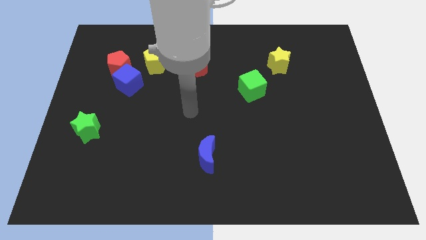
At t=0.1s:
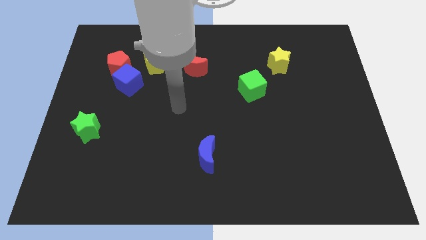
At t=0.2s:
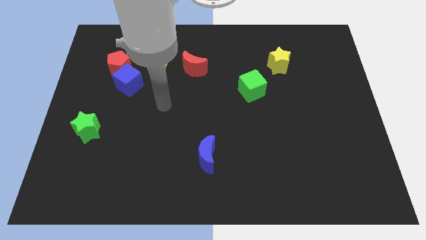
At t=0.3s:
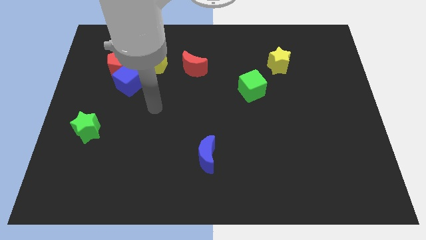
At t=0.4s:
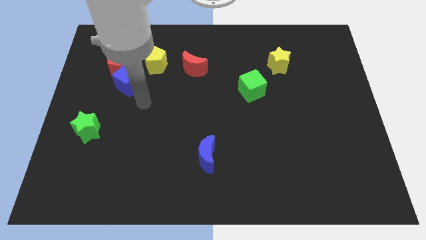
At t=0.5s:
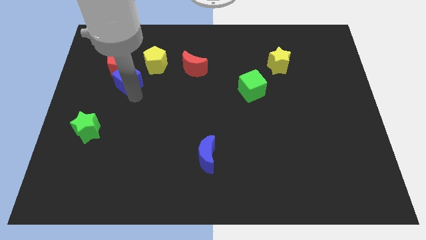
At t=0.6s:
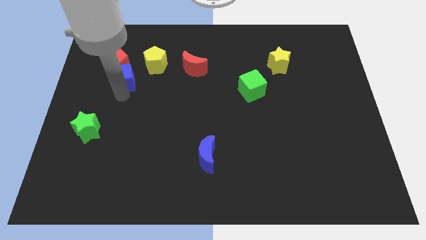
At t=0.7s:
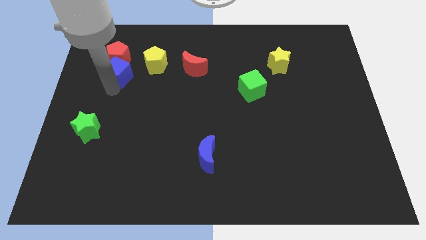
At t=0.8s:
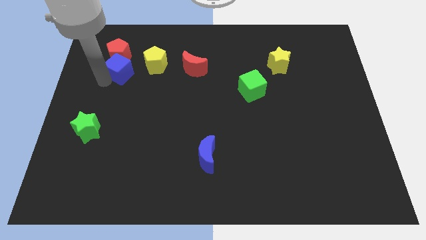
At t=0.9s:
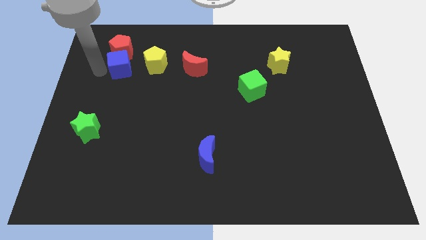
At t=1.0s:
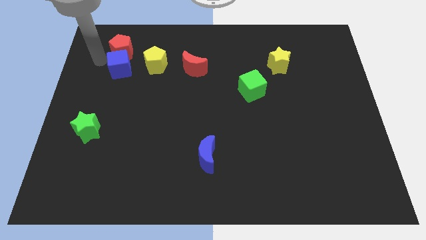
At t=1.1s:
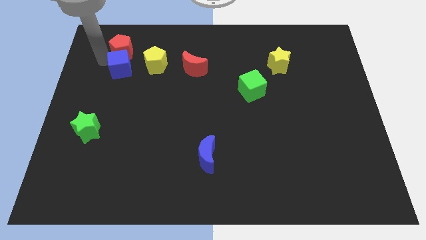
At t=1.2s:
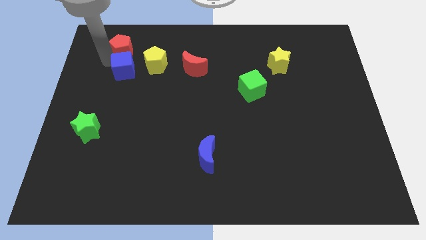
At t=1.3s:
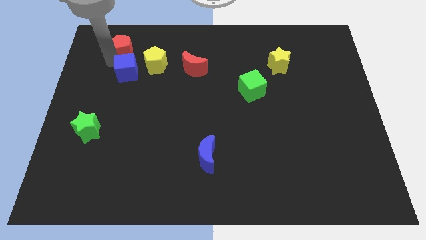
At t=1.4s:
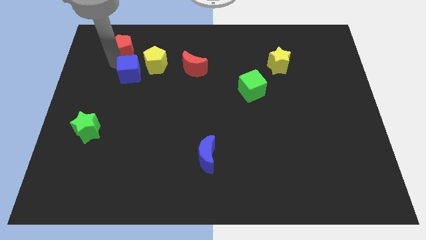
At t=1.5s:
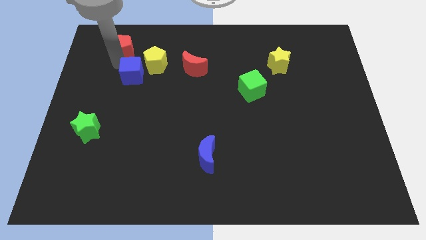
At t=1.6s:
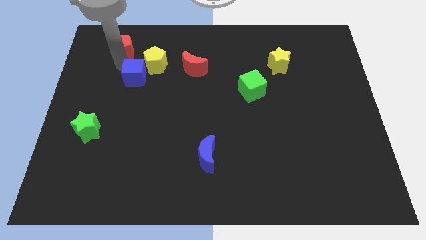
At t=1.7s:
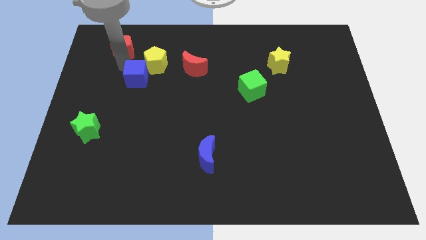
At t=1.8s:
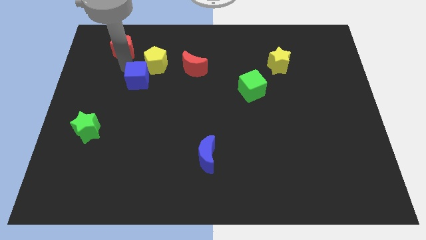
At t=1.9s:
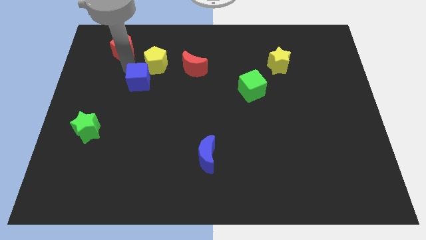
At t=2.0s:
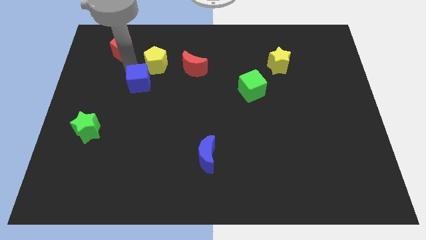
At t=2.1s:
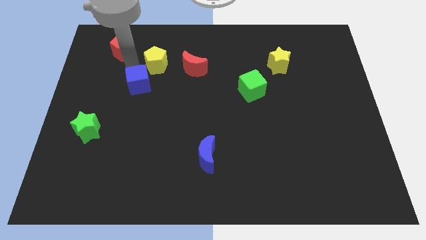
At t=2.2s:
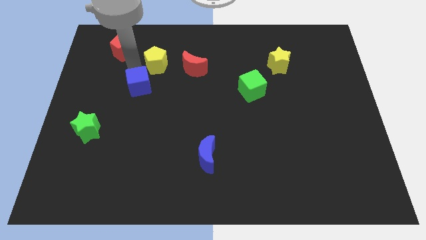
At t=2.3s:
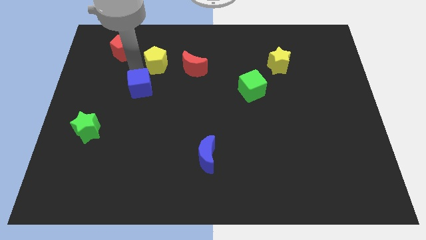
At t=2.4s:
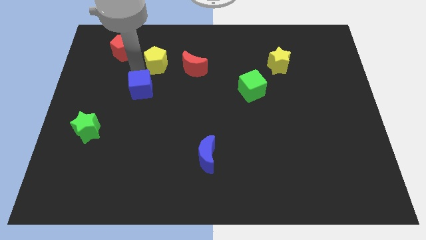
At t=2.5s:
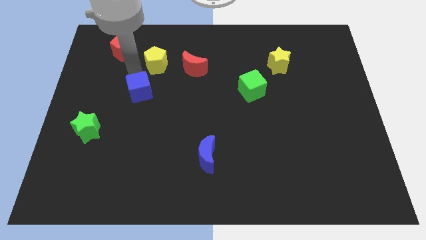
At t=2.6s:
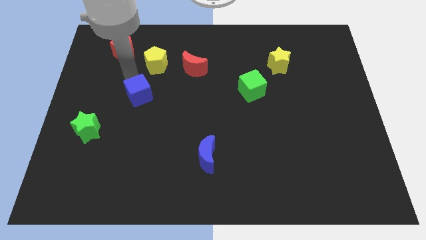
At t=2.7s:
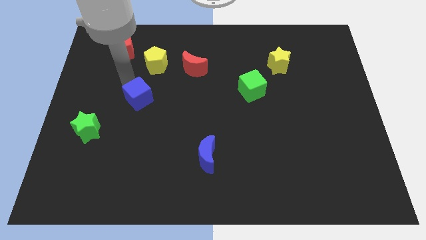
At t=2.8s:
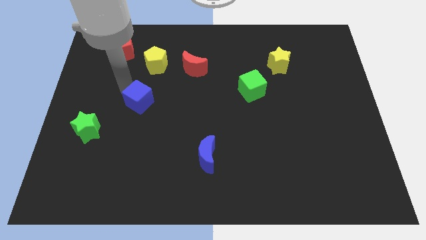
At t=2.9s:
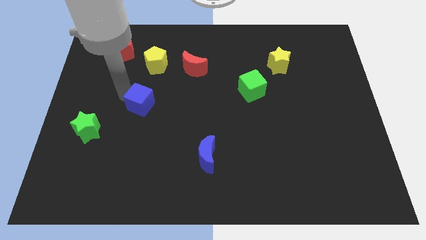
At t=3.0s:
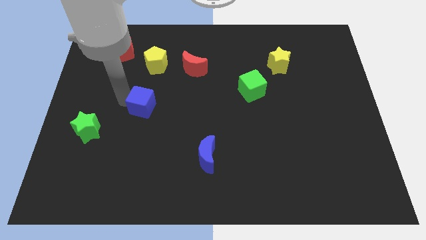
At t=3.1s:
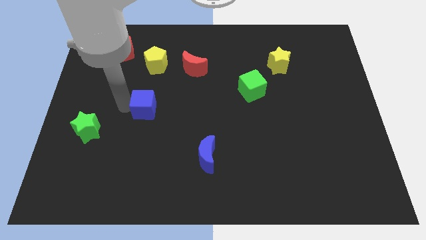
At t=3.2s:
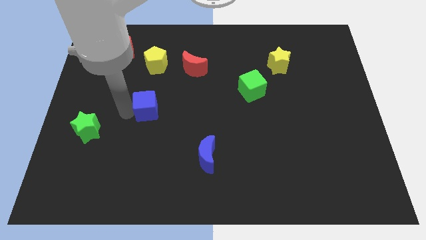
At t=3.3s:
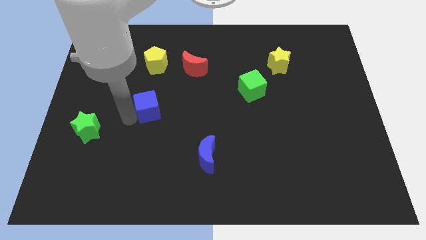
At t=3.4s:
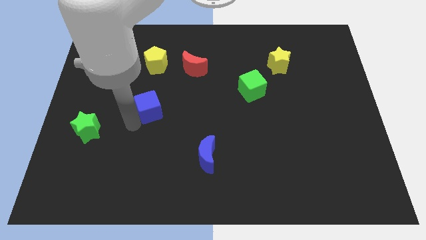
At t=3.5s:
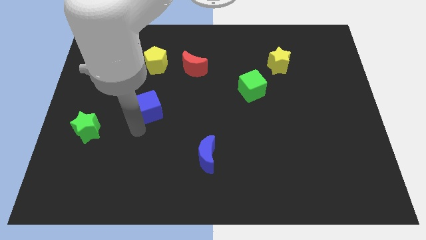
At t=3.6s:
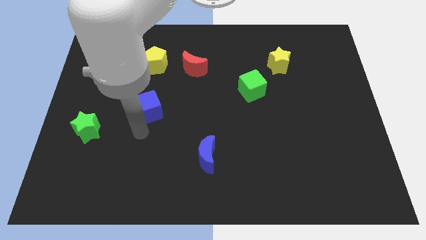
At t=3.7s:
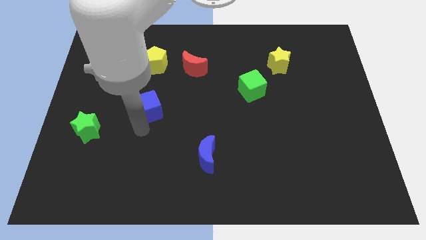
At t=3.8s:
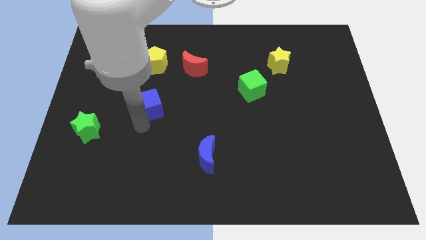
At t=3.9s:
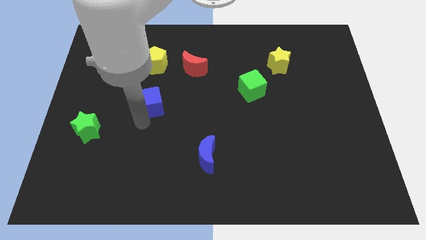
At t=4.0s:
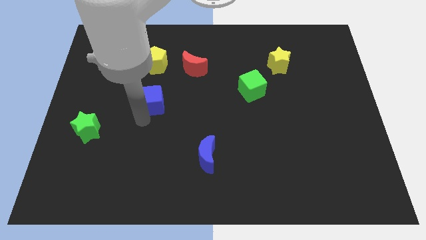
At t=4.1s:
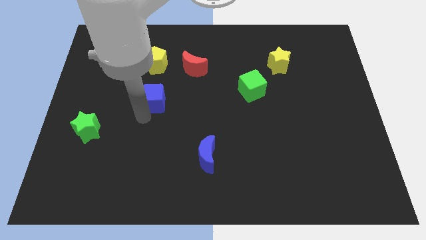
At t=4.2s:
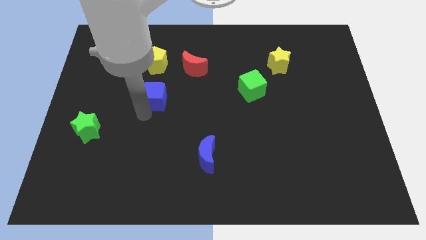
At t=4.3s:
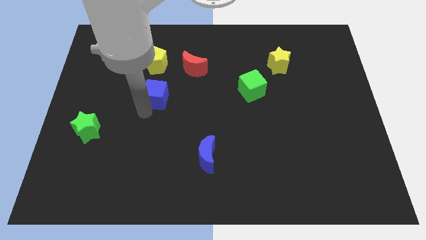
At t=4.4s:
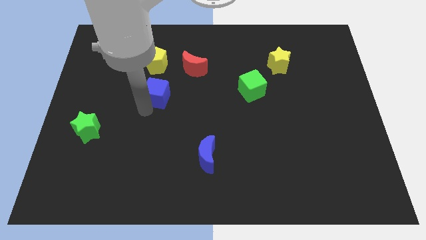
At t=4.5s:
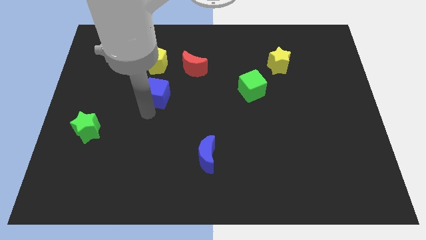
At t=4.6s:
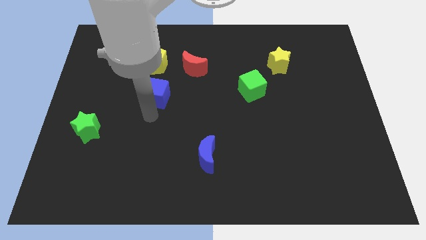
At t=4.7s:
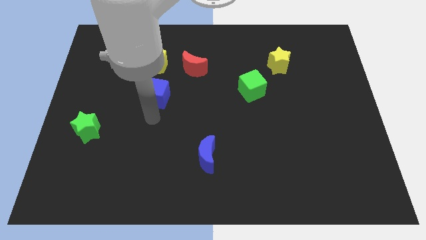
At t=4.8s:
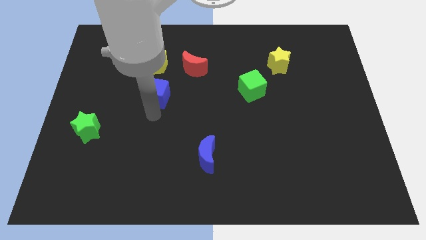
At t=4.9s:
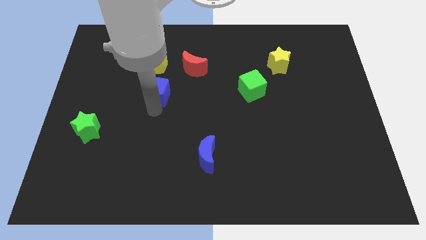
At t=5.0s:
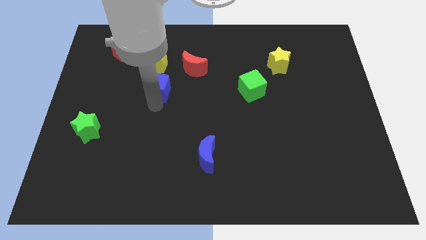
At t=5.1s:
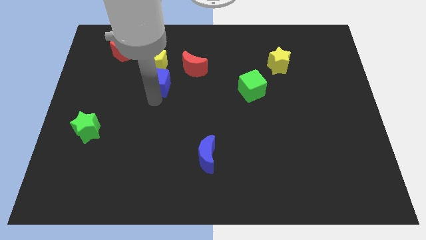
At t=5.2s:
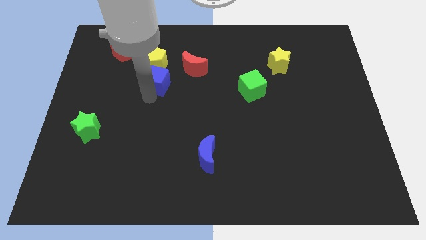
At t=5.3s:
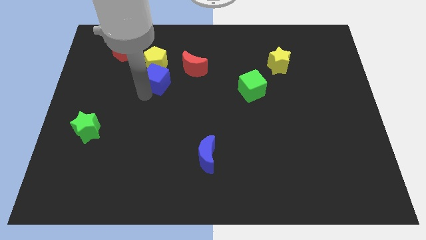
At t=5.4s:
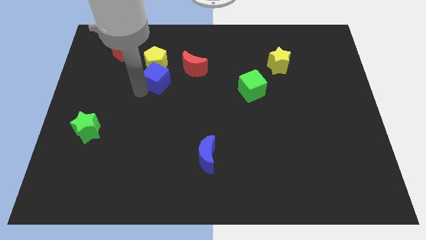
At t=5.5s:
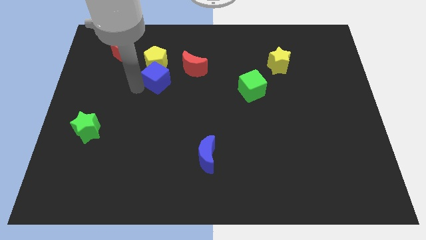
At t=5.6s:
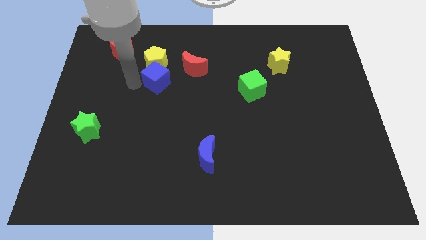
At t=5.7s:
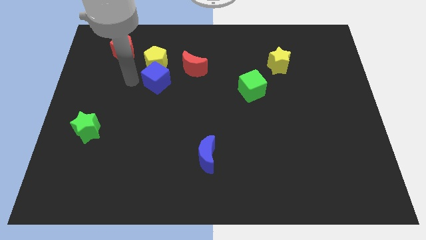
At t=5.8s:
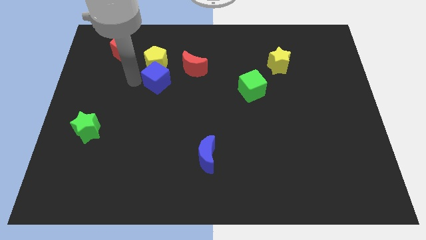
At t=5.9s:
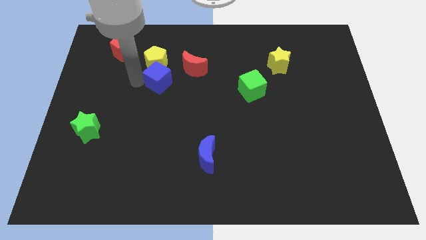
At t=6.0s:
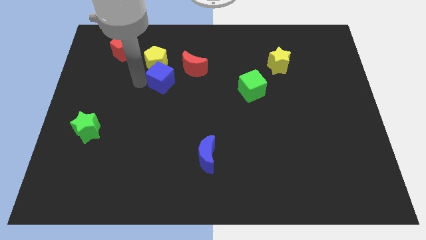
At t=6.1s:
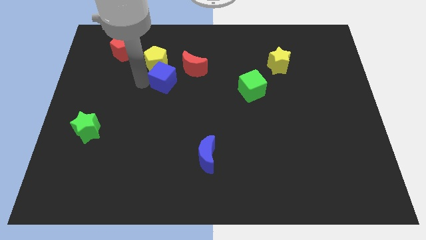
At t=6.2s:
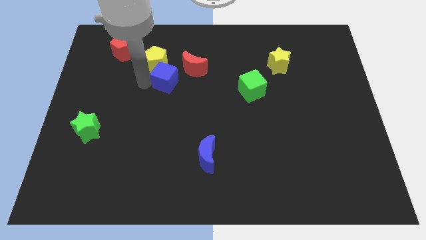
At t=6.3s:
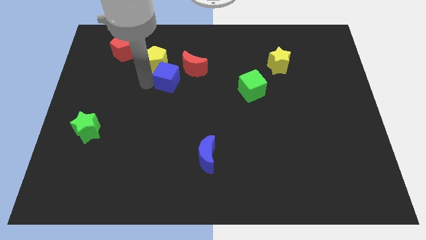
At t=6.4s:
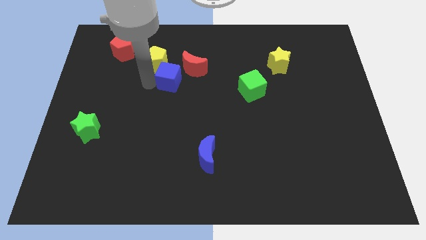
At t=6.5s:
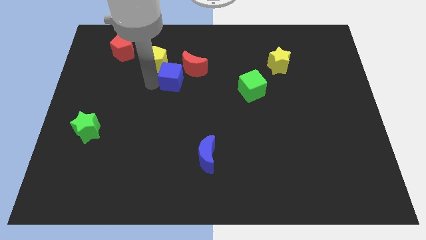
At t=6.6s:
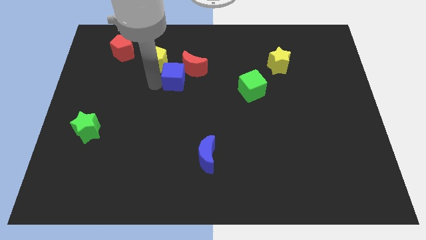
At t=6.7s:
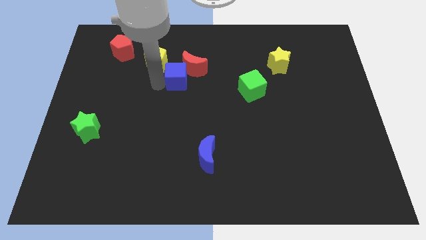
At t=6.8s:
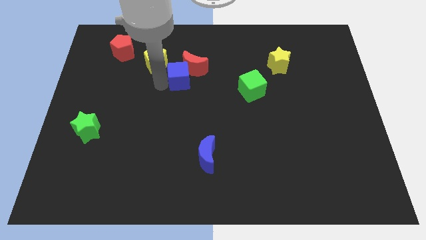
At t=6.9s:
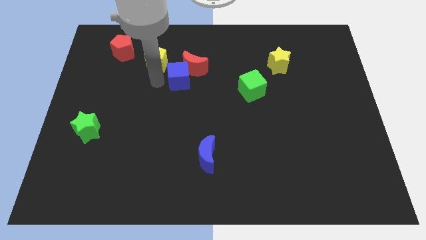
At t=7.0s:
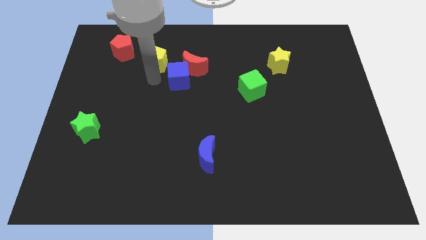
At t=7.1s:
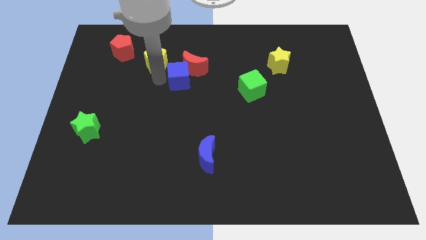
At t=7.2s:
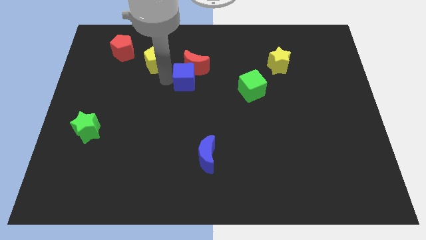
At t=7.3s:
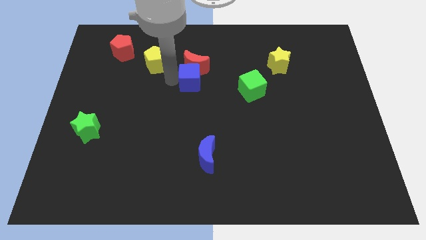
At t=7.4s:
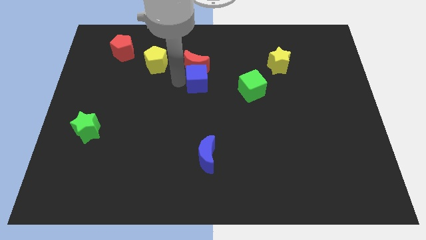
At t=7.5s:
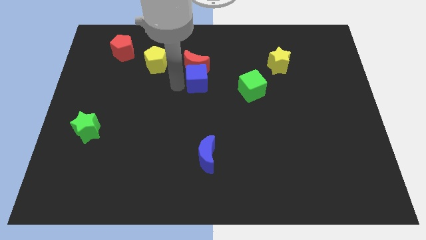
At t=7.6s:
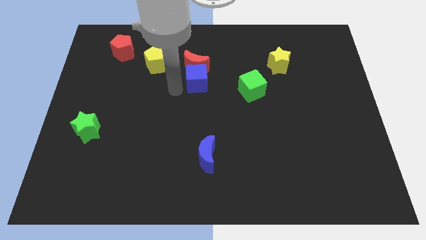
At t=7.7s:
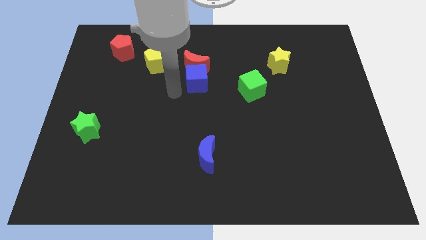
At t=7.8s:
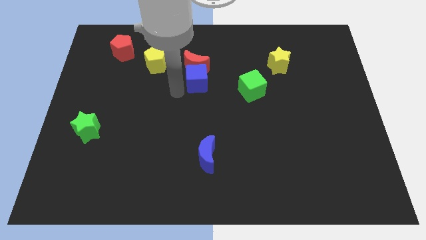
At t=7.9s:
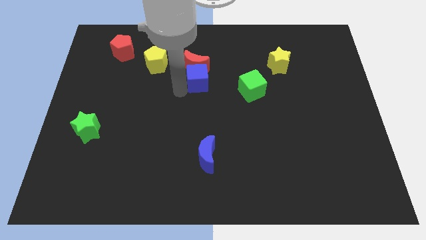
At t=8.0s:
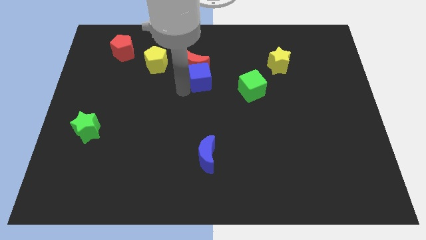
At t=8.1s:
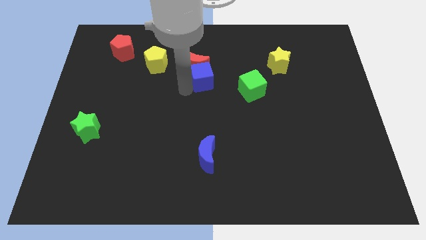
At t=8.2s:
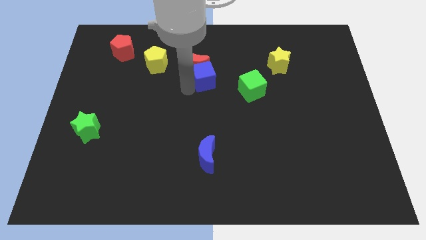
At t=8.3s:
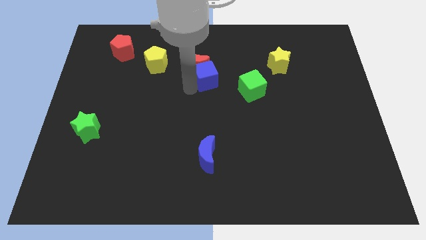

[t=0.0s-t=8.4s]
slide the blue cube just right of the red moon
